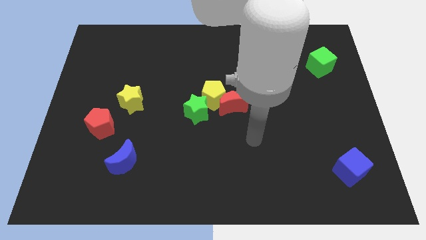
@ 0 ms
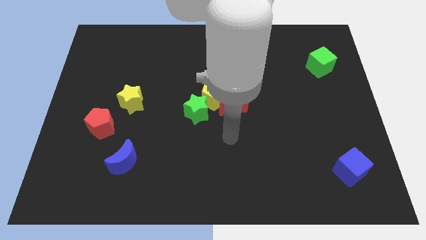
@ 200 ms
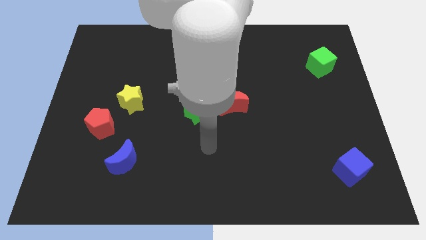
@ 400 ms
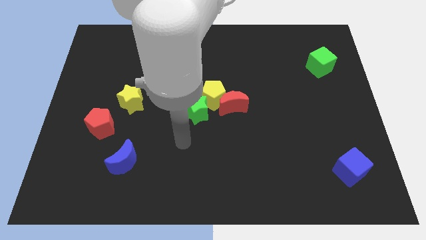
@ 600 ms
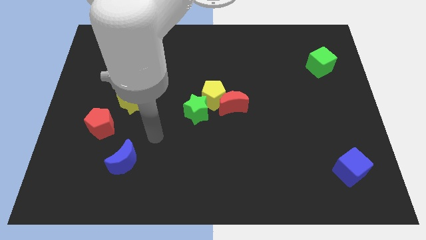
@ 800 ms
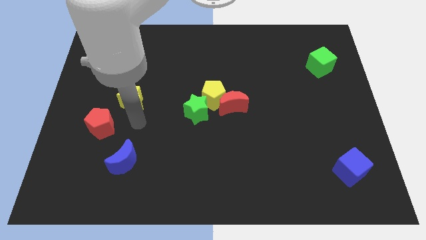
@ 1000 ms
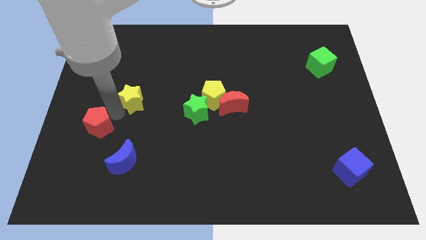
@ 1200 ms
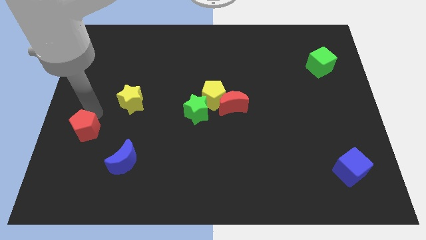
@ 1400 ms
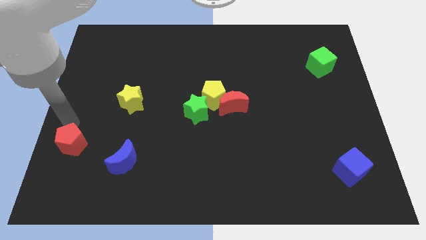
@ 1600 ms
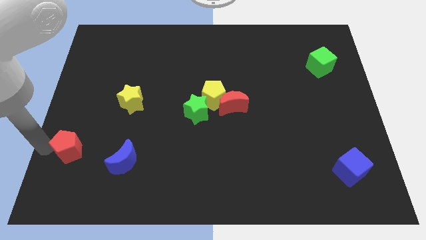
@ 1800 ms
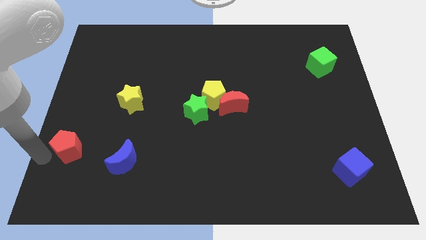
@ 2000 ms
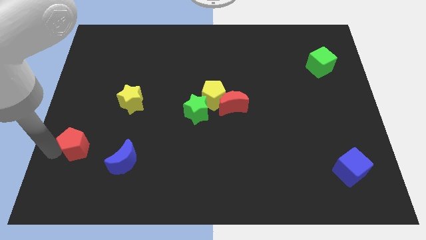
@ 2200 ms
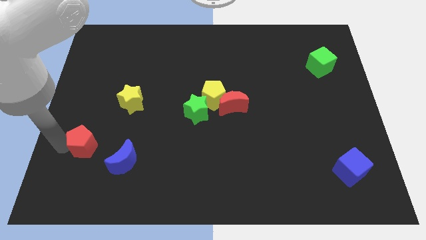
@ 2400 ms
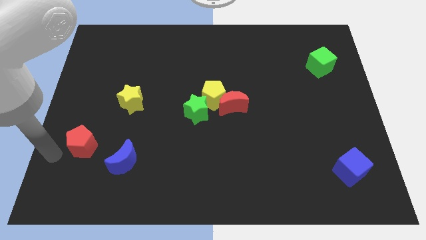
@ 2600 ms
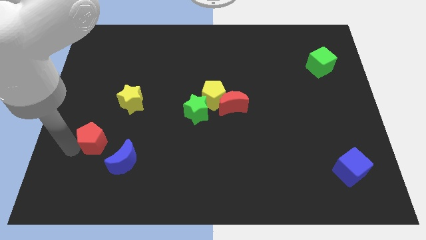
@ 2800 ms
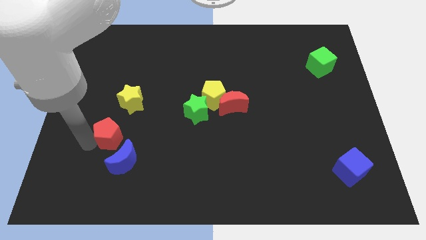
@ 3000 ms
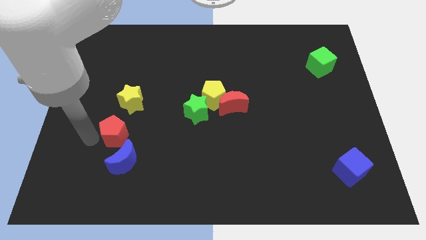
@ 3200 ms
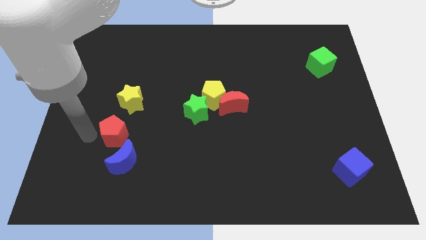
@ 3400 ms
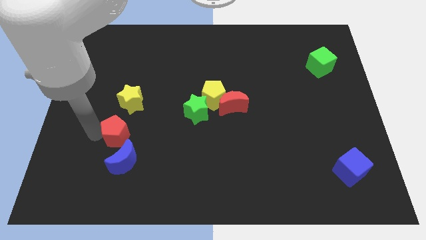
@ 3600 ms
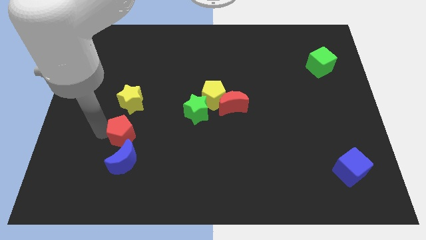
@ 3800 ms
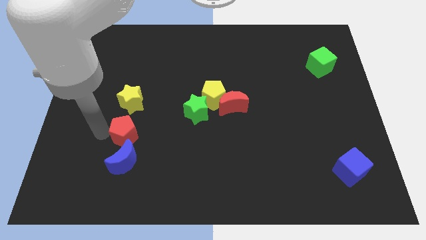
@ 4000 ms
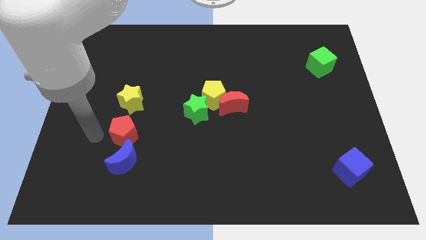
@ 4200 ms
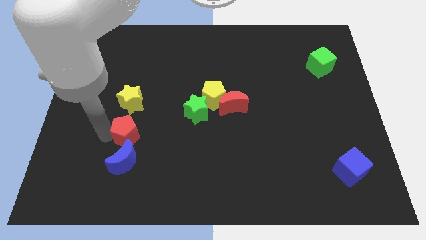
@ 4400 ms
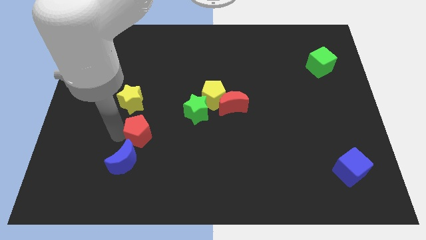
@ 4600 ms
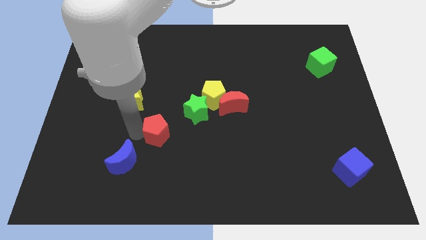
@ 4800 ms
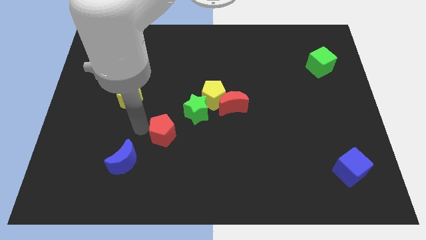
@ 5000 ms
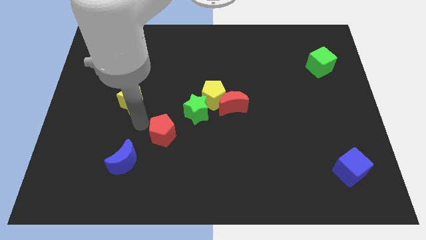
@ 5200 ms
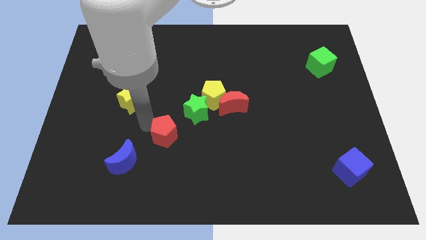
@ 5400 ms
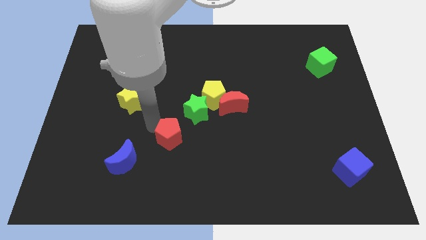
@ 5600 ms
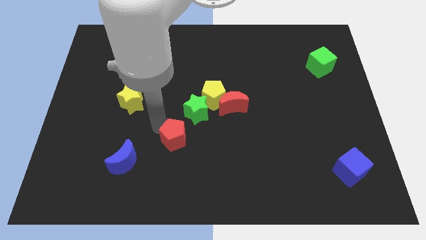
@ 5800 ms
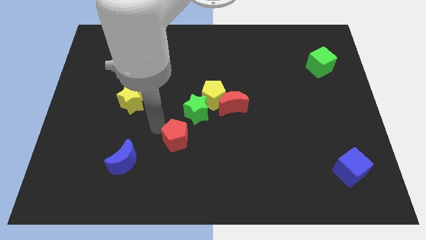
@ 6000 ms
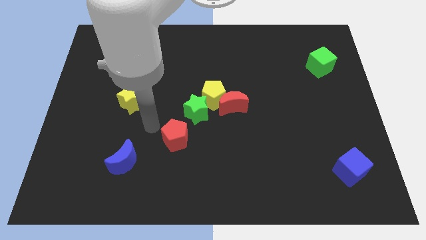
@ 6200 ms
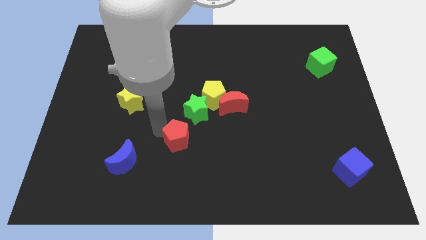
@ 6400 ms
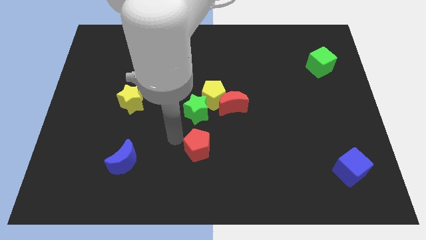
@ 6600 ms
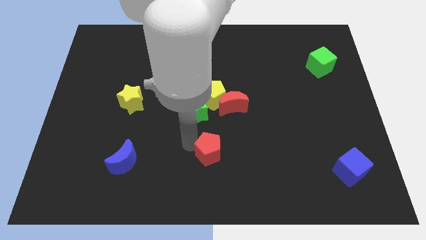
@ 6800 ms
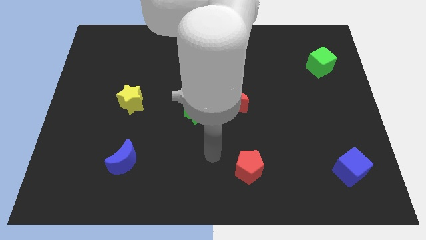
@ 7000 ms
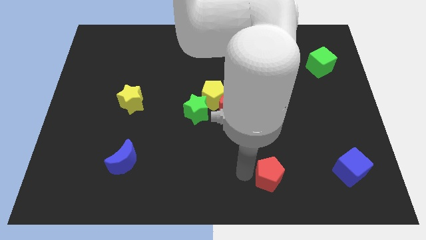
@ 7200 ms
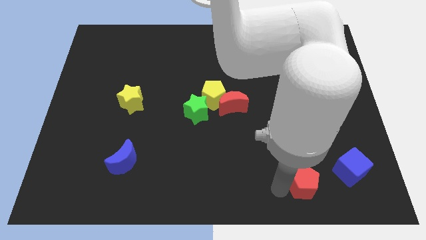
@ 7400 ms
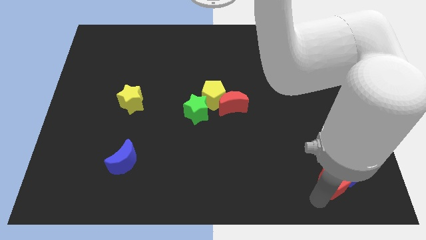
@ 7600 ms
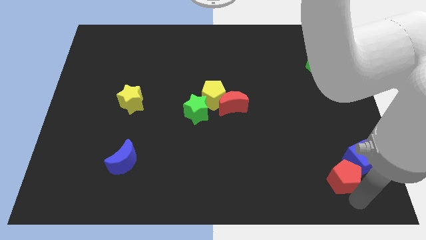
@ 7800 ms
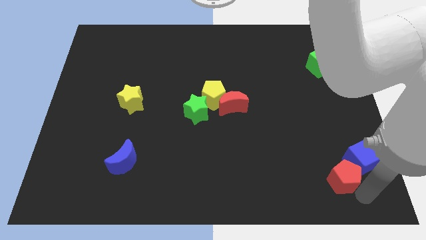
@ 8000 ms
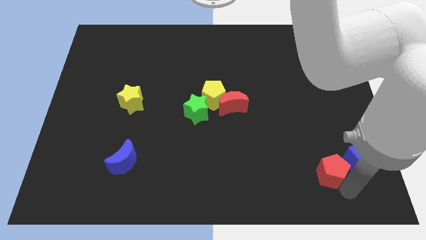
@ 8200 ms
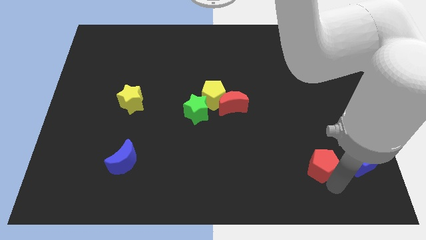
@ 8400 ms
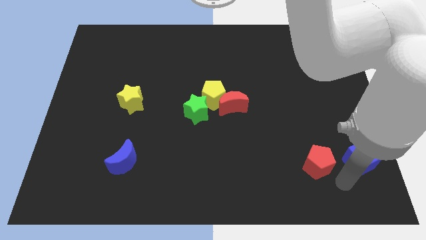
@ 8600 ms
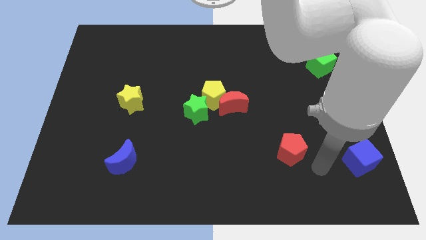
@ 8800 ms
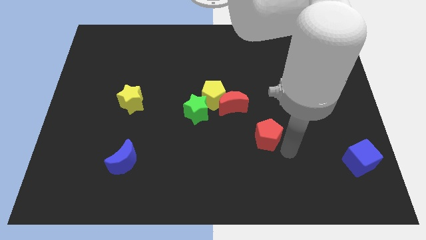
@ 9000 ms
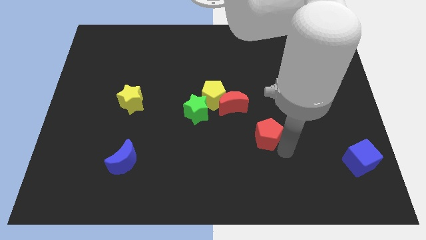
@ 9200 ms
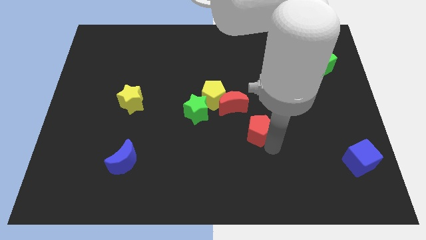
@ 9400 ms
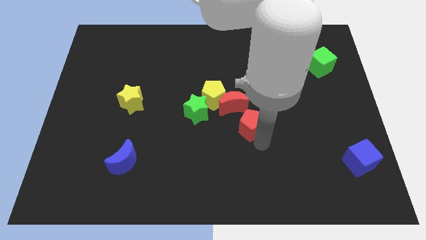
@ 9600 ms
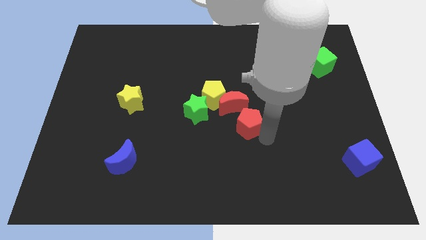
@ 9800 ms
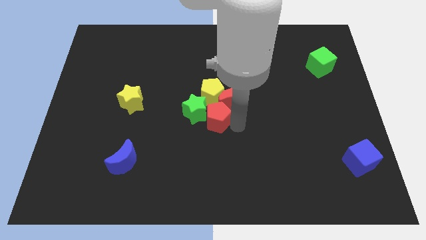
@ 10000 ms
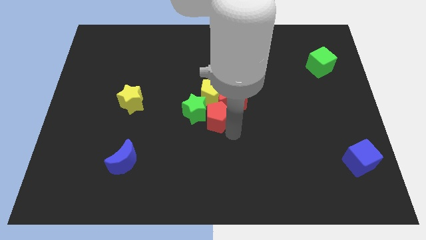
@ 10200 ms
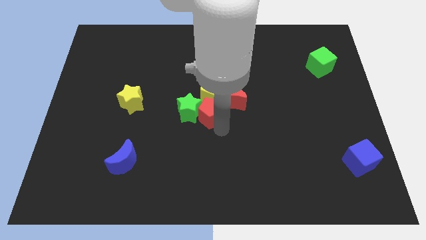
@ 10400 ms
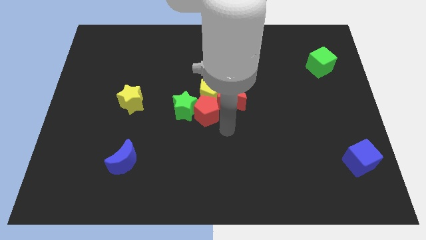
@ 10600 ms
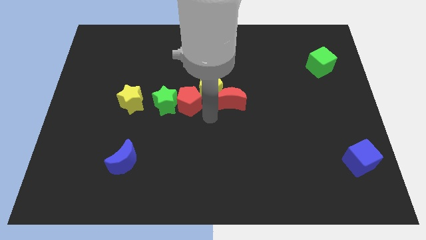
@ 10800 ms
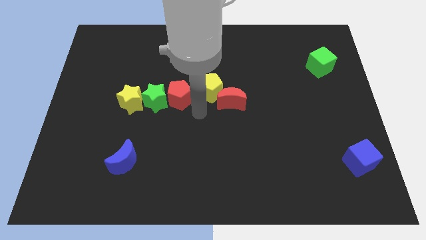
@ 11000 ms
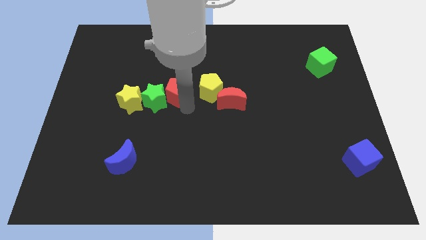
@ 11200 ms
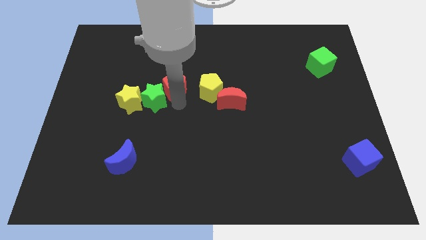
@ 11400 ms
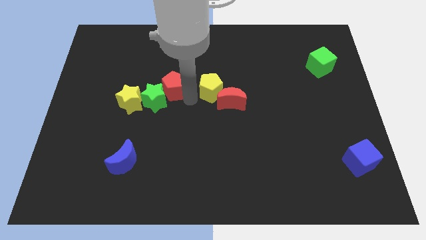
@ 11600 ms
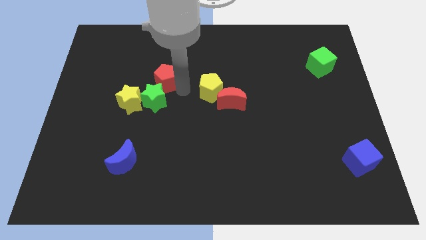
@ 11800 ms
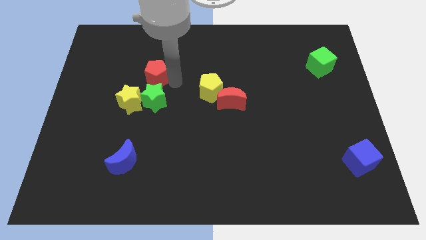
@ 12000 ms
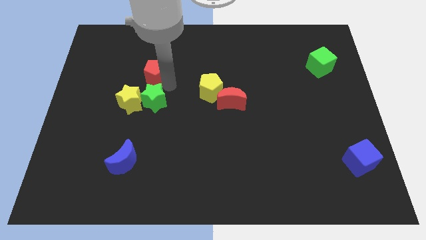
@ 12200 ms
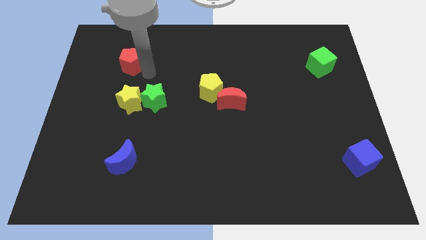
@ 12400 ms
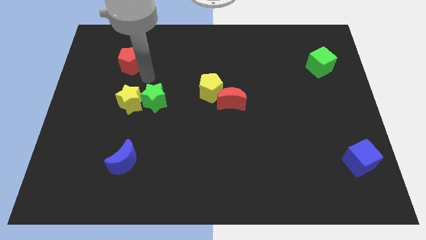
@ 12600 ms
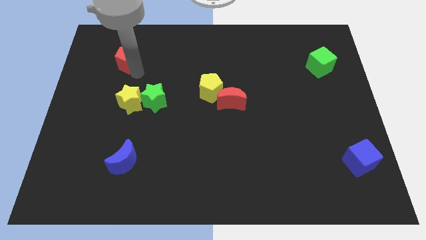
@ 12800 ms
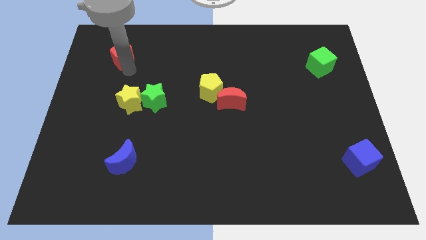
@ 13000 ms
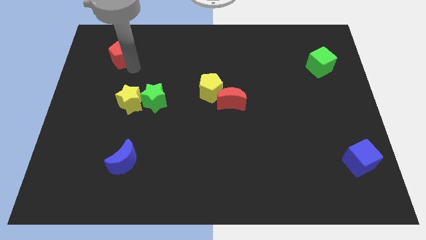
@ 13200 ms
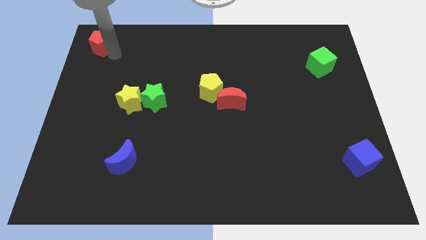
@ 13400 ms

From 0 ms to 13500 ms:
slide the red pentagon to the upper left corner
